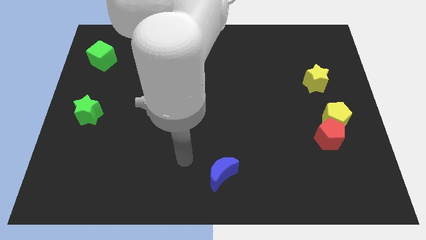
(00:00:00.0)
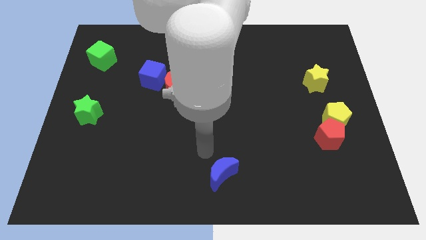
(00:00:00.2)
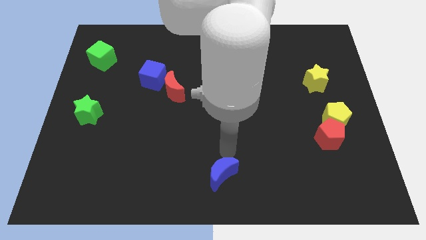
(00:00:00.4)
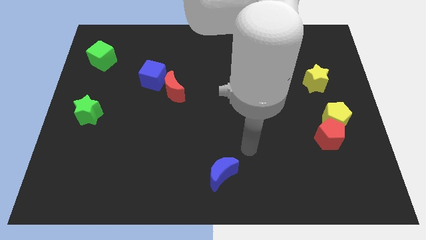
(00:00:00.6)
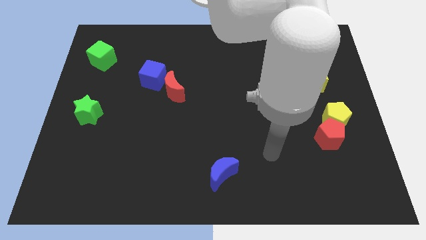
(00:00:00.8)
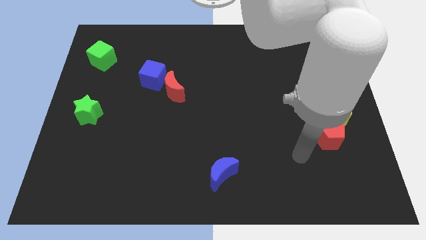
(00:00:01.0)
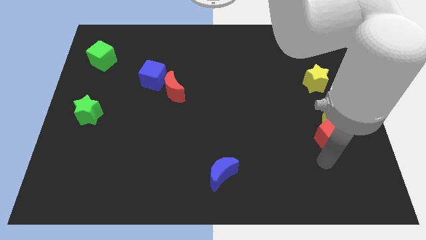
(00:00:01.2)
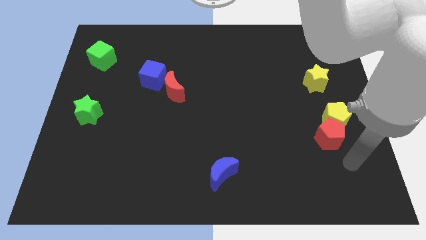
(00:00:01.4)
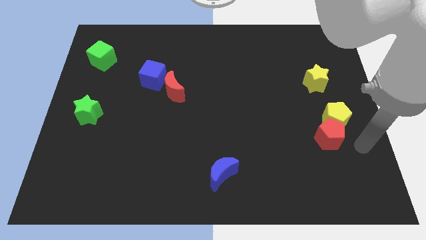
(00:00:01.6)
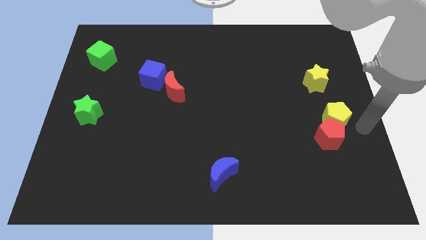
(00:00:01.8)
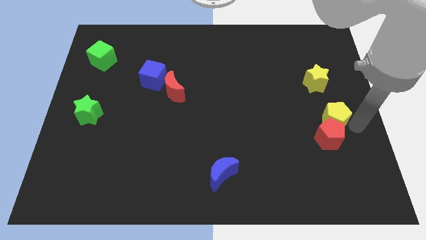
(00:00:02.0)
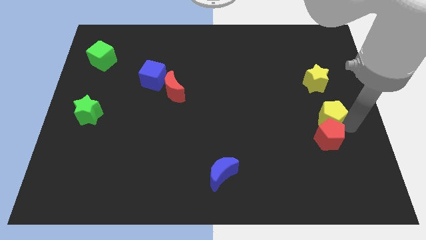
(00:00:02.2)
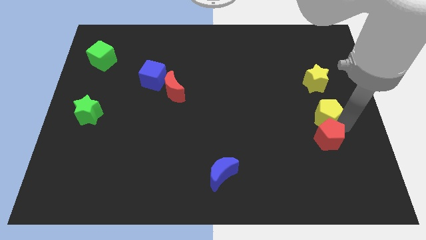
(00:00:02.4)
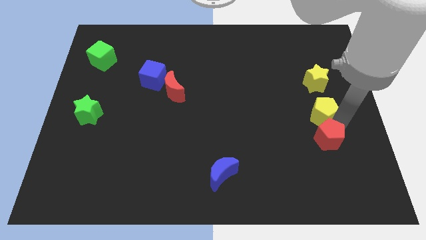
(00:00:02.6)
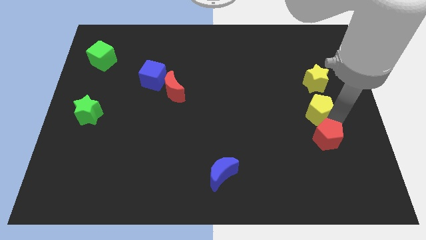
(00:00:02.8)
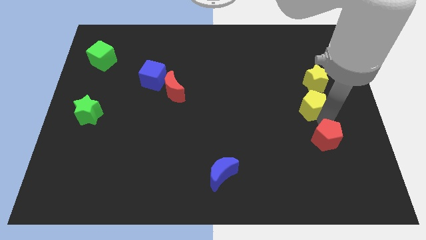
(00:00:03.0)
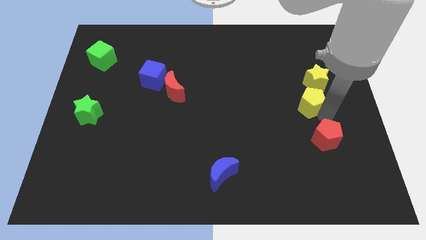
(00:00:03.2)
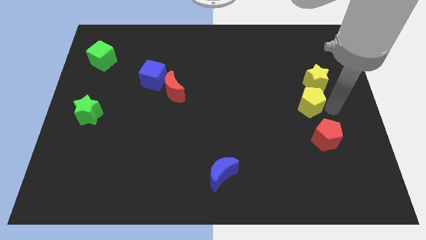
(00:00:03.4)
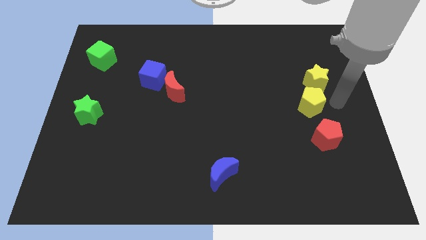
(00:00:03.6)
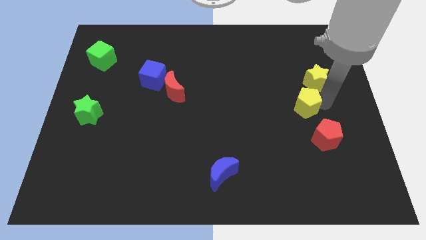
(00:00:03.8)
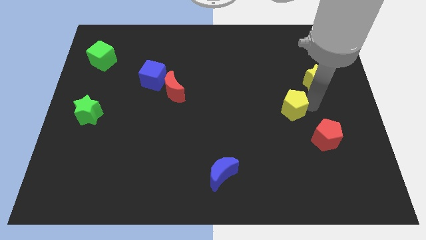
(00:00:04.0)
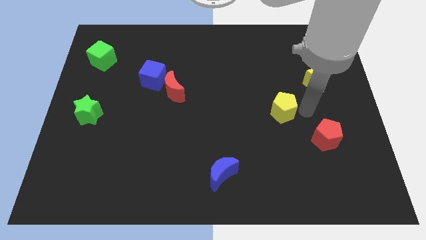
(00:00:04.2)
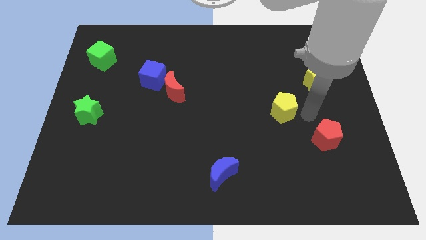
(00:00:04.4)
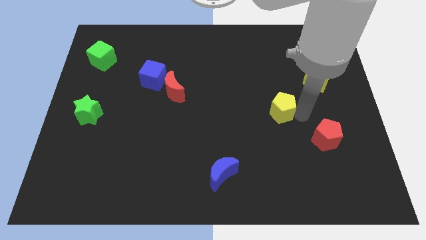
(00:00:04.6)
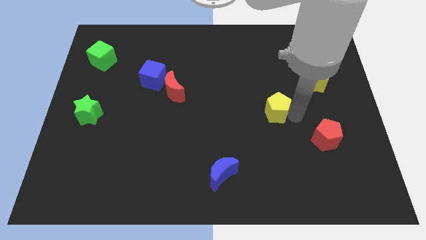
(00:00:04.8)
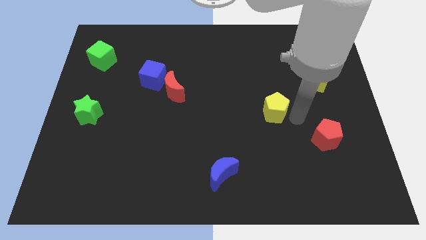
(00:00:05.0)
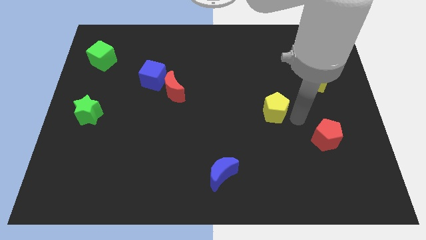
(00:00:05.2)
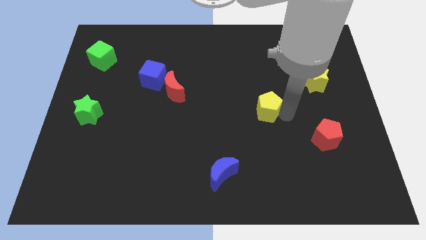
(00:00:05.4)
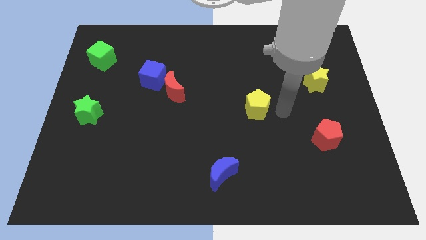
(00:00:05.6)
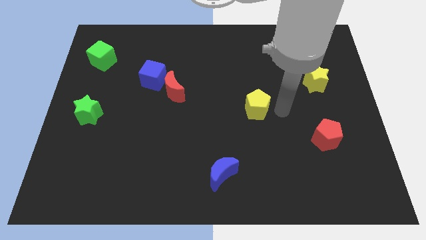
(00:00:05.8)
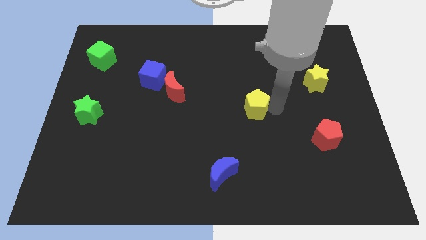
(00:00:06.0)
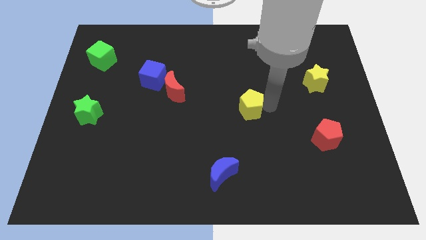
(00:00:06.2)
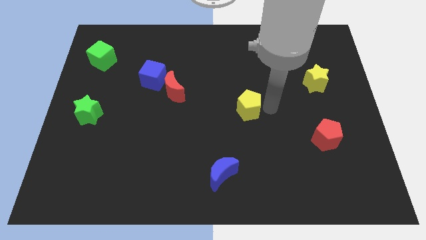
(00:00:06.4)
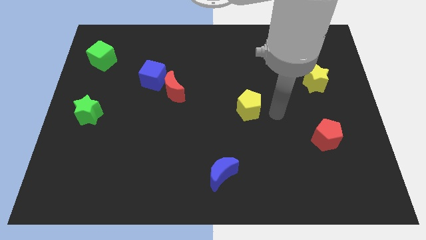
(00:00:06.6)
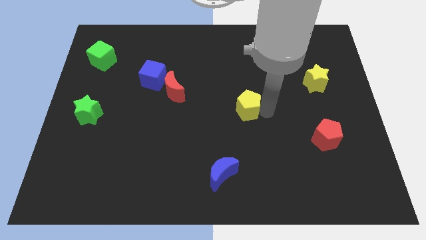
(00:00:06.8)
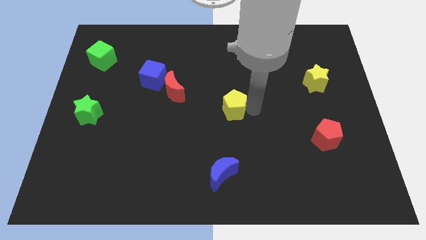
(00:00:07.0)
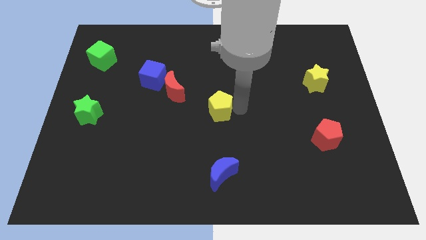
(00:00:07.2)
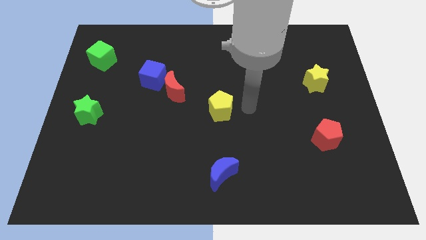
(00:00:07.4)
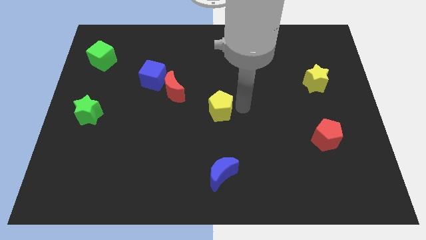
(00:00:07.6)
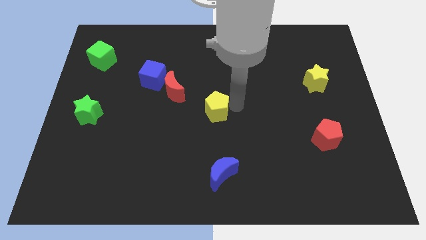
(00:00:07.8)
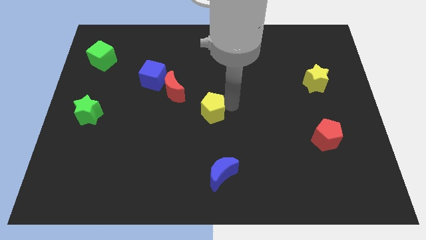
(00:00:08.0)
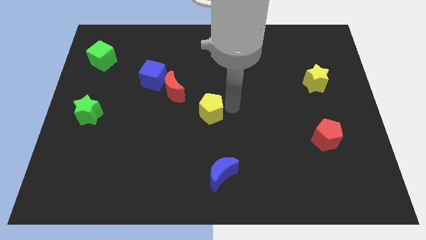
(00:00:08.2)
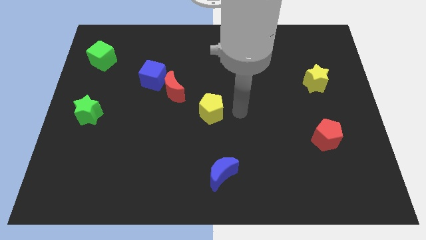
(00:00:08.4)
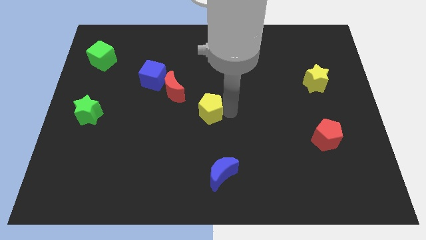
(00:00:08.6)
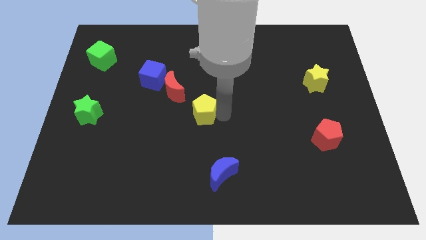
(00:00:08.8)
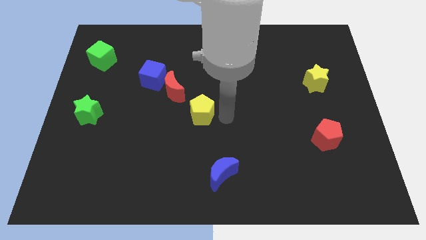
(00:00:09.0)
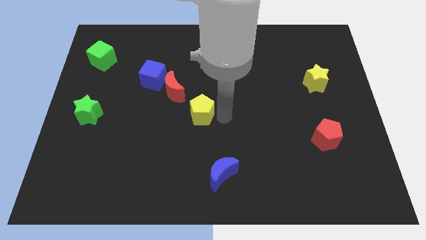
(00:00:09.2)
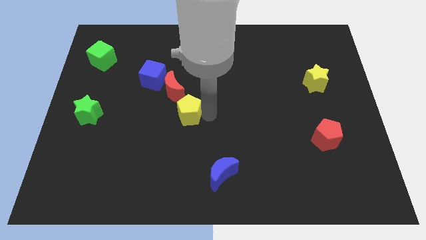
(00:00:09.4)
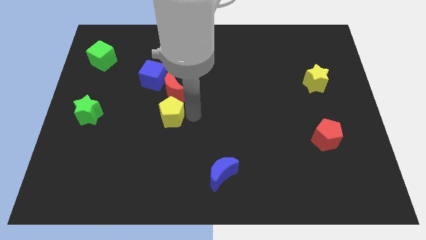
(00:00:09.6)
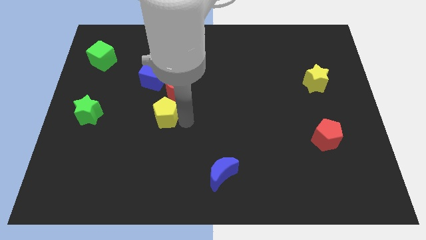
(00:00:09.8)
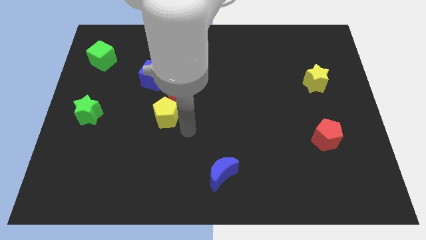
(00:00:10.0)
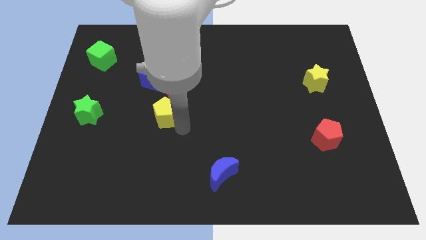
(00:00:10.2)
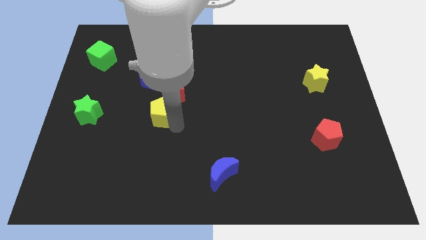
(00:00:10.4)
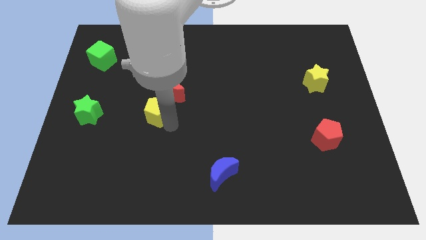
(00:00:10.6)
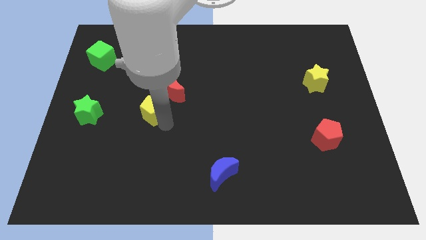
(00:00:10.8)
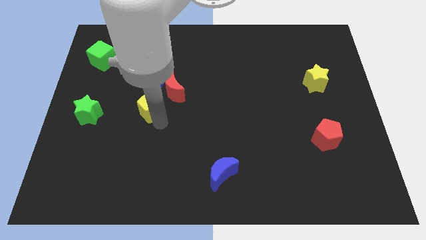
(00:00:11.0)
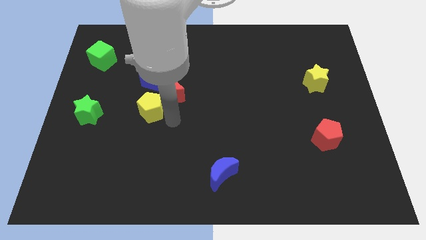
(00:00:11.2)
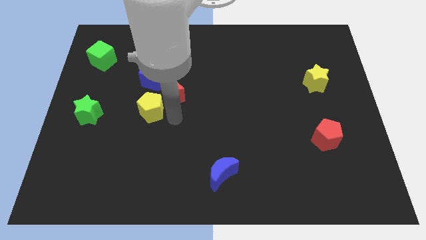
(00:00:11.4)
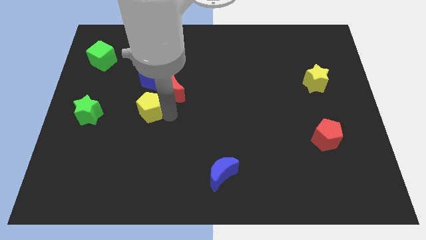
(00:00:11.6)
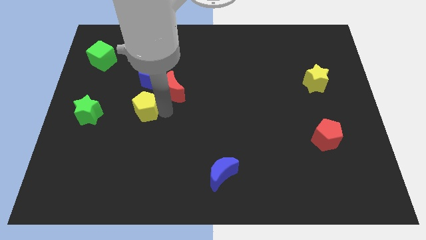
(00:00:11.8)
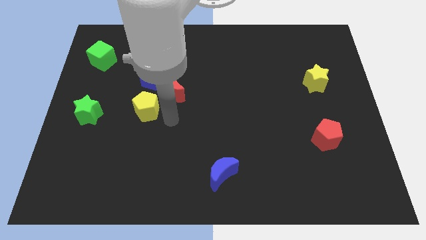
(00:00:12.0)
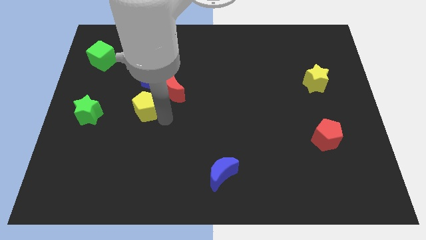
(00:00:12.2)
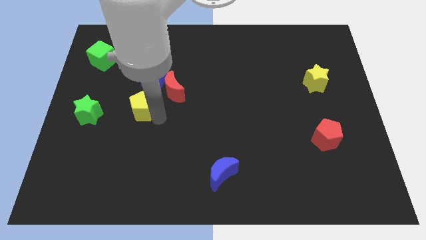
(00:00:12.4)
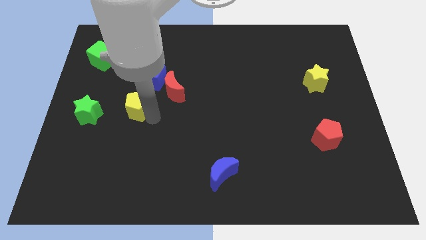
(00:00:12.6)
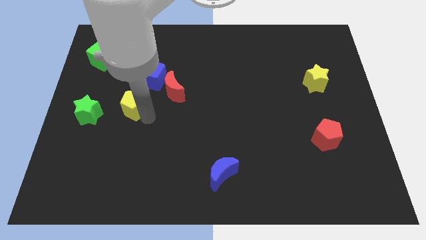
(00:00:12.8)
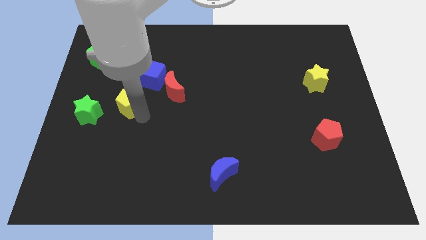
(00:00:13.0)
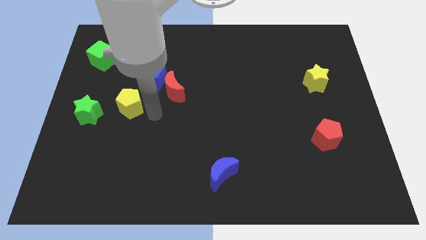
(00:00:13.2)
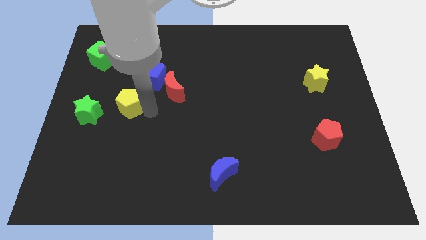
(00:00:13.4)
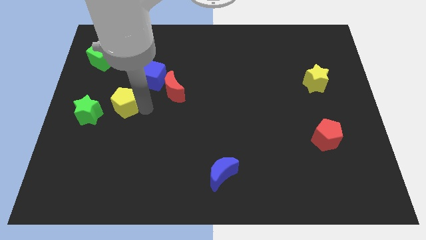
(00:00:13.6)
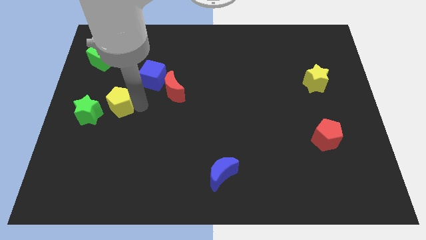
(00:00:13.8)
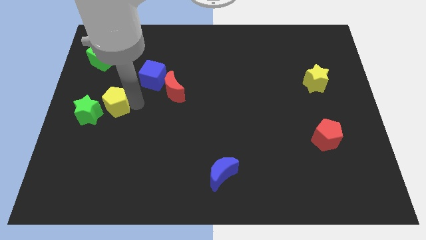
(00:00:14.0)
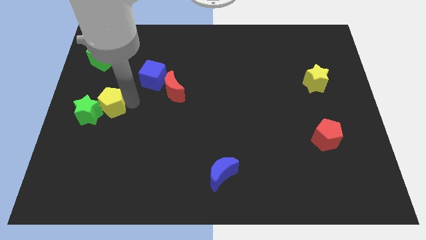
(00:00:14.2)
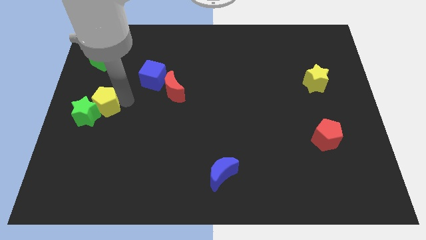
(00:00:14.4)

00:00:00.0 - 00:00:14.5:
move the yellow pentagon to the center left

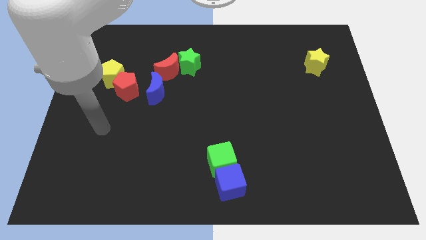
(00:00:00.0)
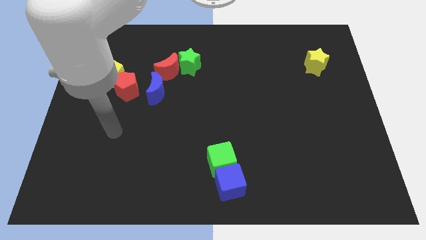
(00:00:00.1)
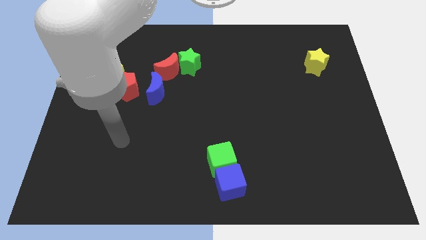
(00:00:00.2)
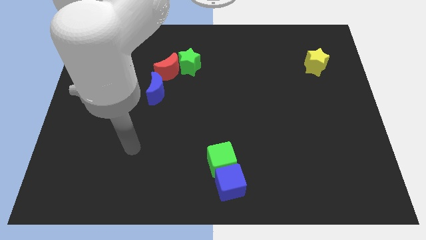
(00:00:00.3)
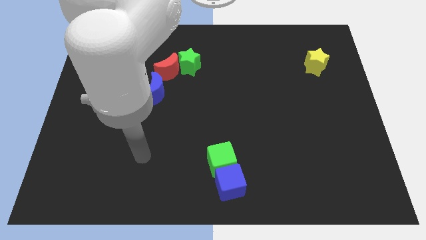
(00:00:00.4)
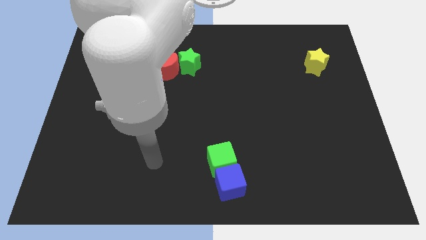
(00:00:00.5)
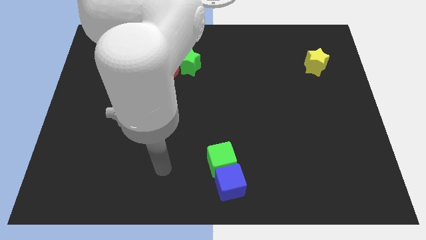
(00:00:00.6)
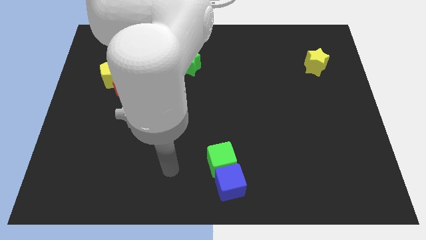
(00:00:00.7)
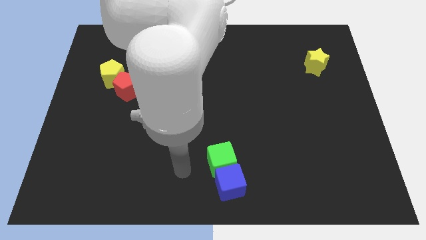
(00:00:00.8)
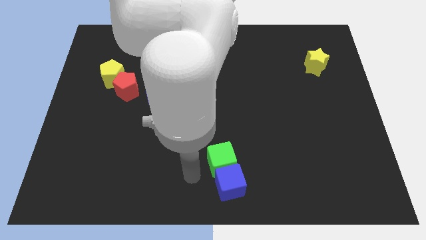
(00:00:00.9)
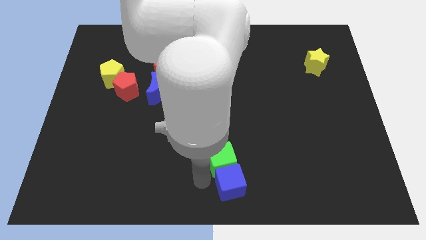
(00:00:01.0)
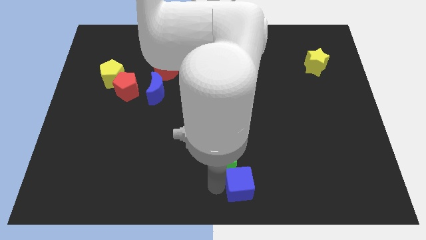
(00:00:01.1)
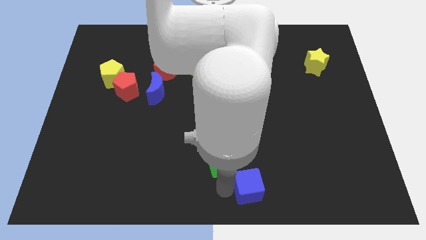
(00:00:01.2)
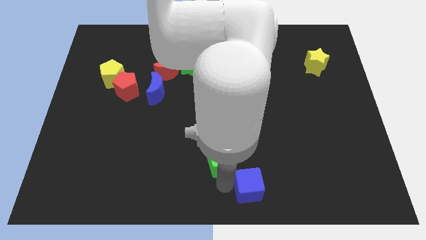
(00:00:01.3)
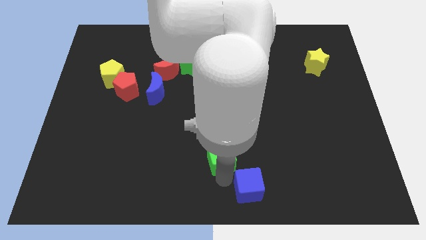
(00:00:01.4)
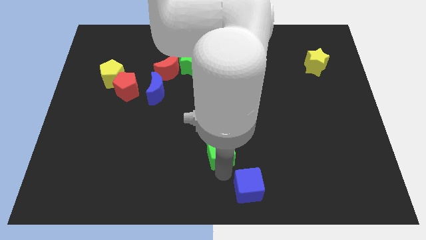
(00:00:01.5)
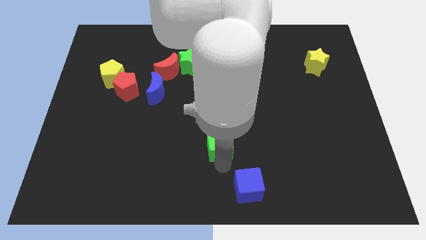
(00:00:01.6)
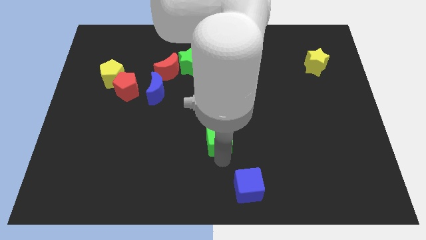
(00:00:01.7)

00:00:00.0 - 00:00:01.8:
move the green cube to the center of the board
